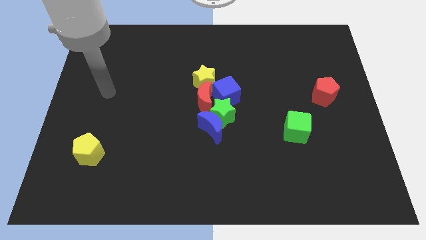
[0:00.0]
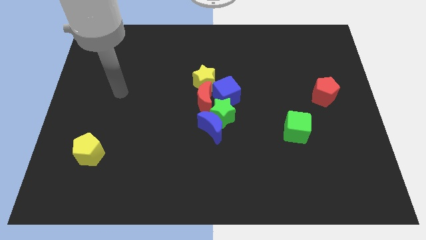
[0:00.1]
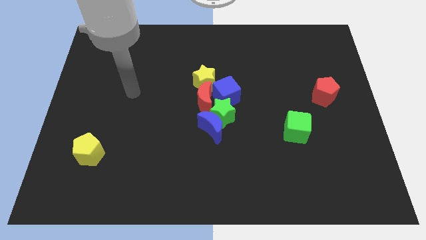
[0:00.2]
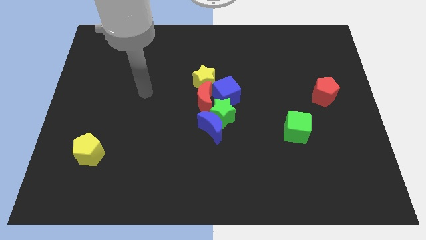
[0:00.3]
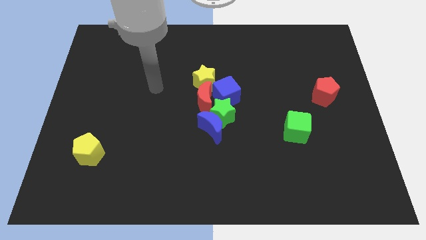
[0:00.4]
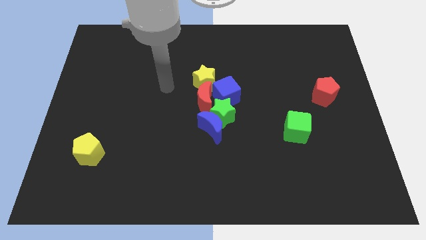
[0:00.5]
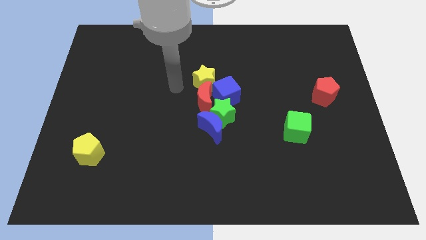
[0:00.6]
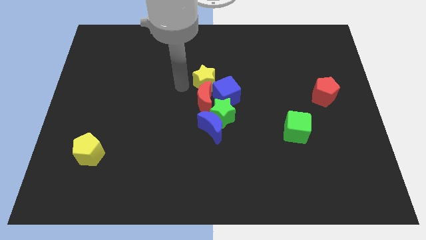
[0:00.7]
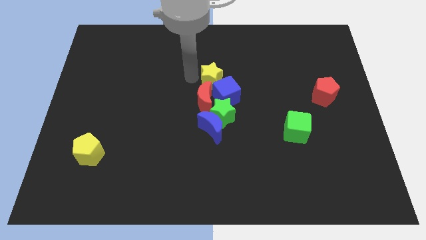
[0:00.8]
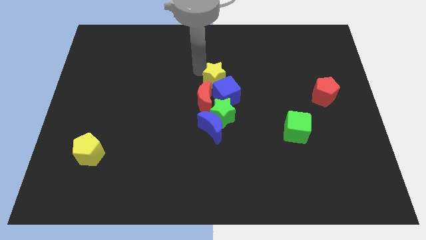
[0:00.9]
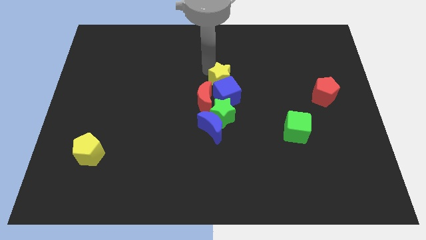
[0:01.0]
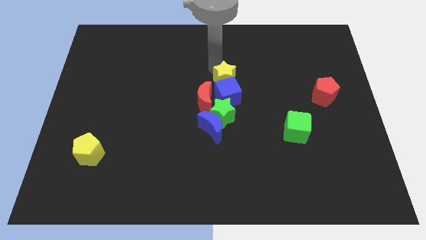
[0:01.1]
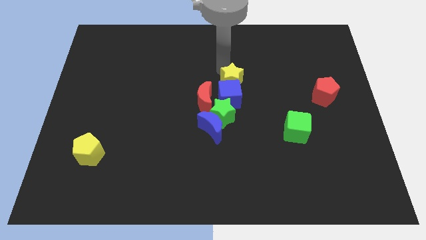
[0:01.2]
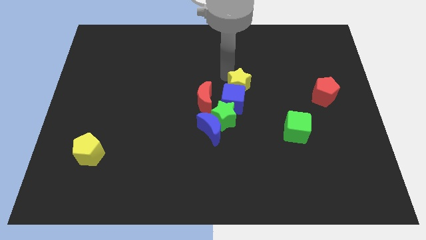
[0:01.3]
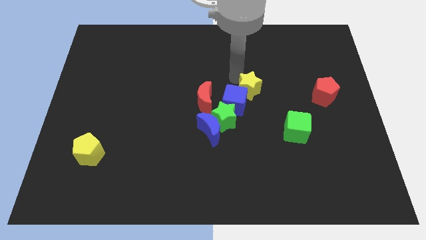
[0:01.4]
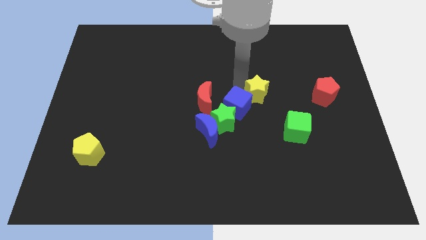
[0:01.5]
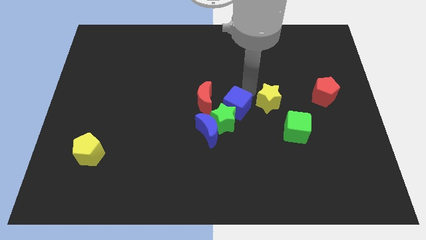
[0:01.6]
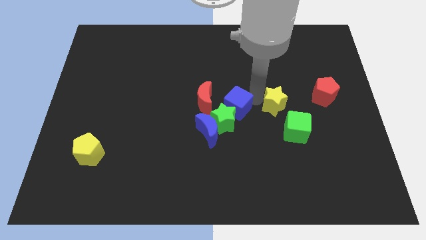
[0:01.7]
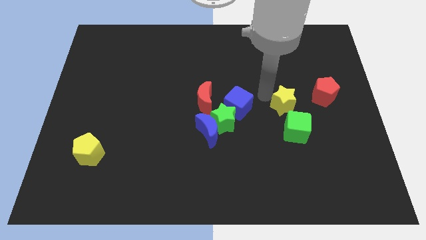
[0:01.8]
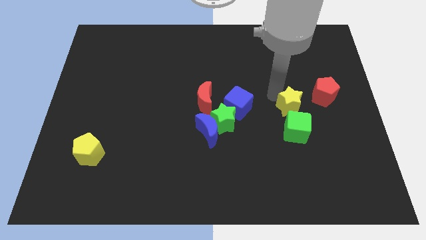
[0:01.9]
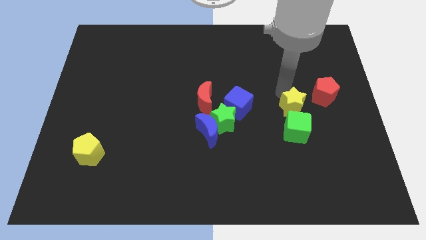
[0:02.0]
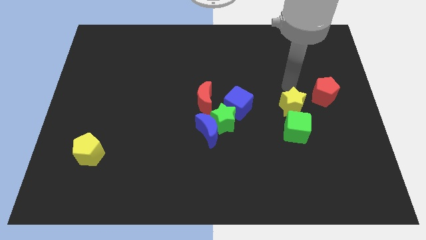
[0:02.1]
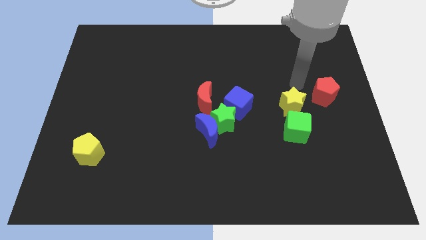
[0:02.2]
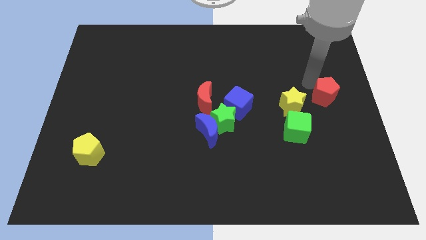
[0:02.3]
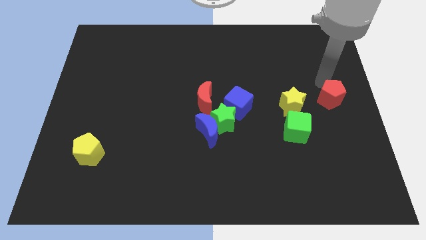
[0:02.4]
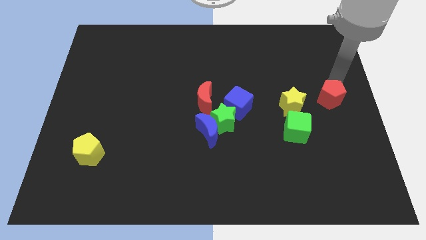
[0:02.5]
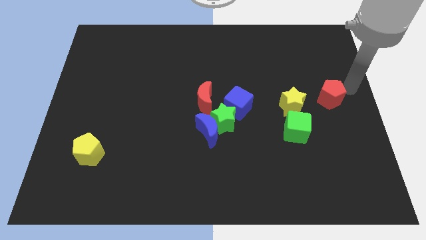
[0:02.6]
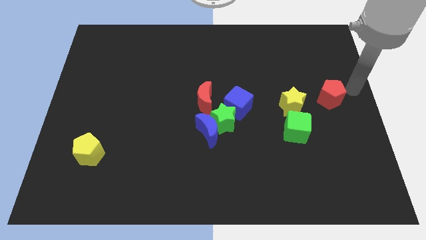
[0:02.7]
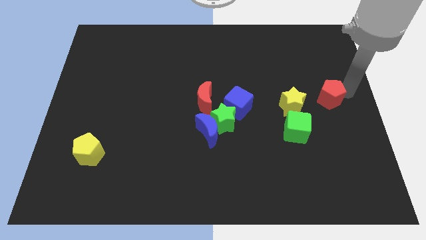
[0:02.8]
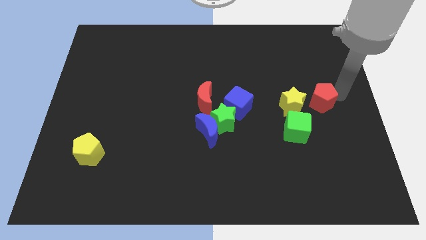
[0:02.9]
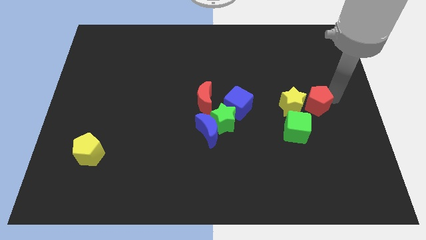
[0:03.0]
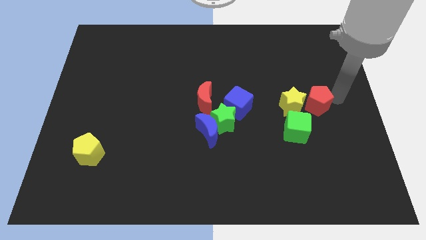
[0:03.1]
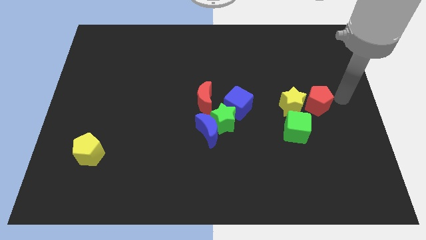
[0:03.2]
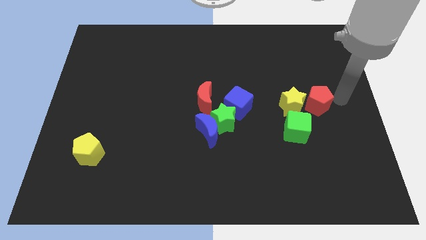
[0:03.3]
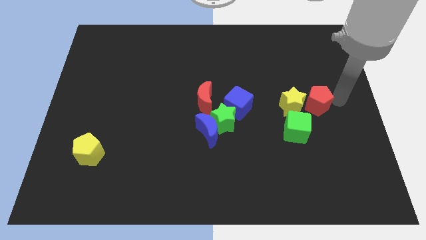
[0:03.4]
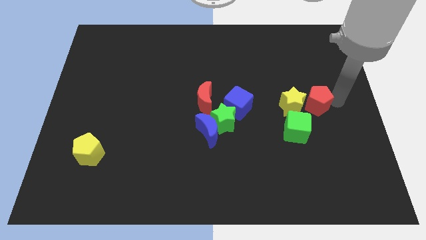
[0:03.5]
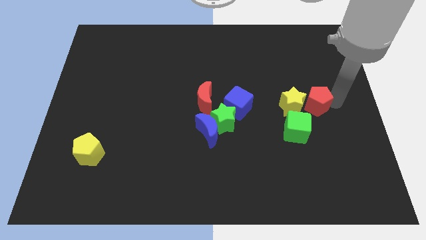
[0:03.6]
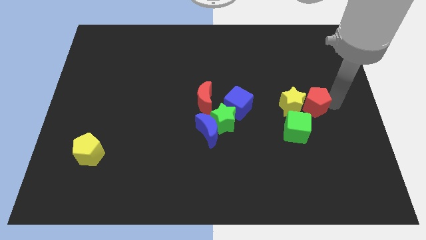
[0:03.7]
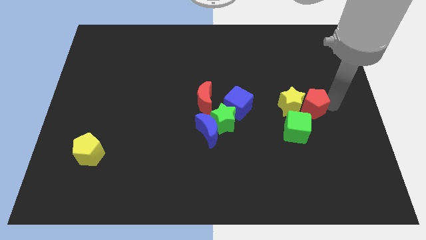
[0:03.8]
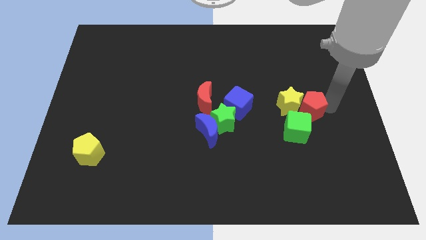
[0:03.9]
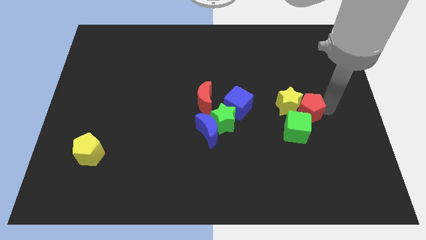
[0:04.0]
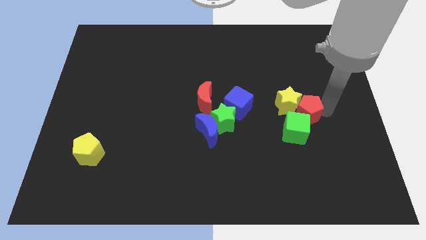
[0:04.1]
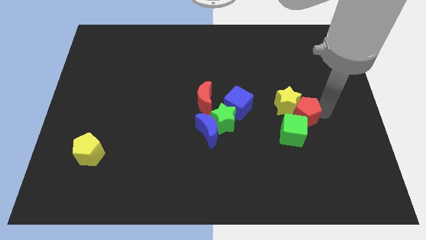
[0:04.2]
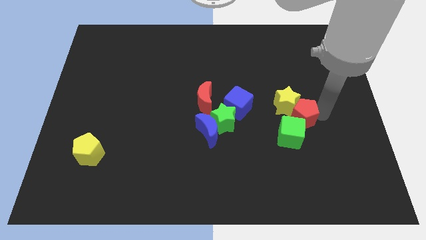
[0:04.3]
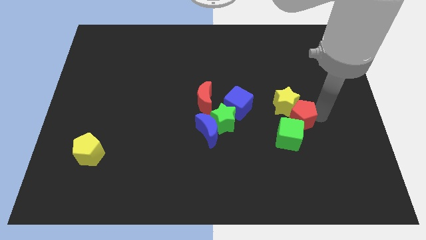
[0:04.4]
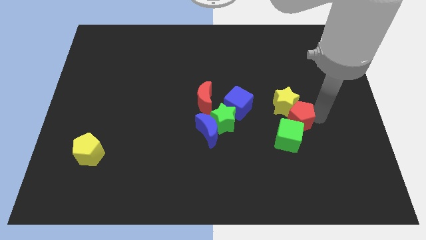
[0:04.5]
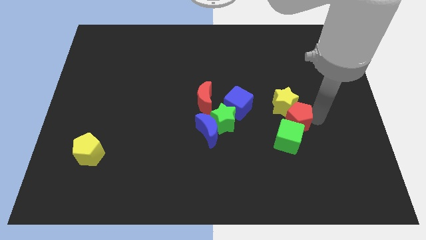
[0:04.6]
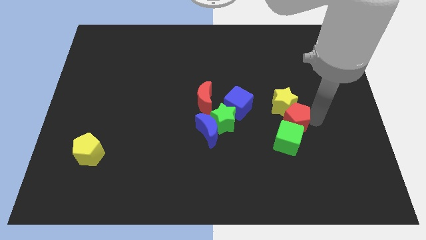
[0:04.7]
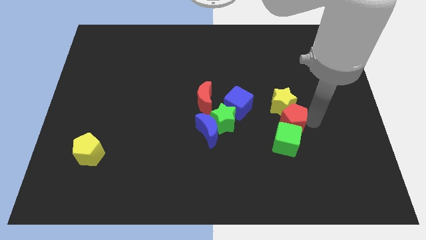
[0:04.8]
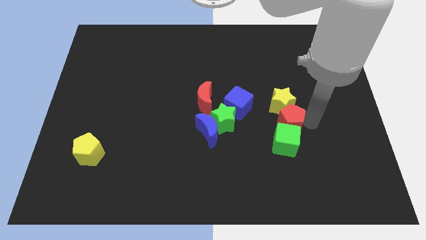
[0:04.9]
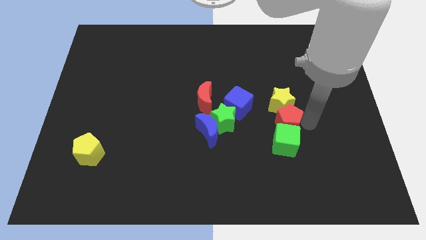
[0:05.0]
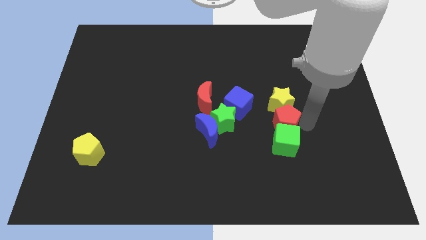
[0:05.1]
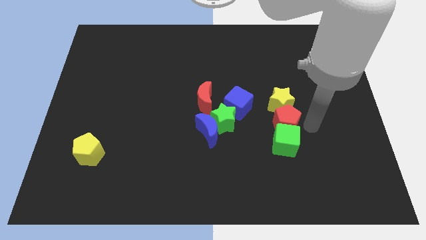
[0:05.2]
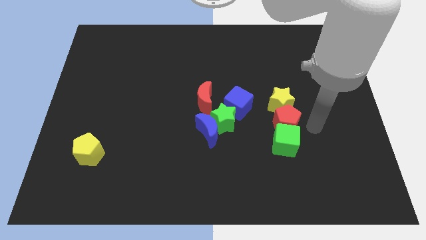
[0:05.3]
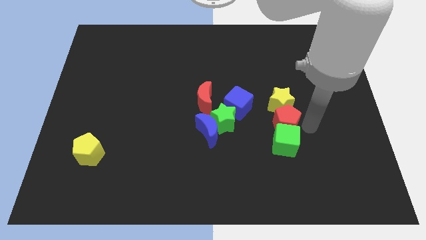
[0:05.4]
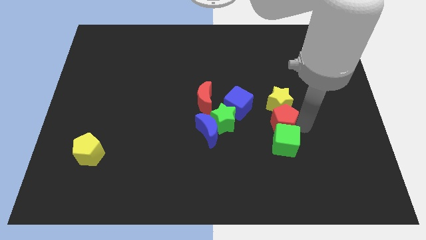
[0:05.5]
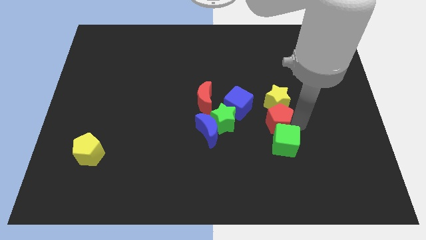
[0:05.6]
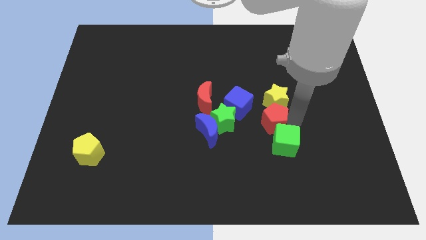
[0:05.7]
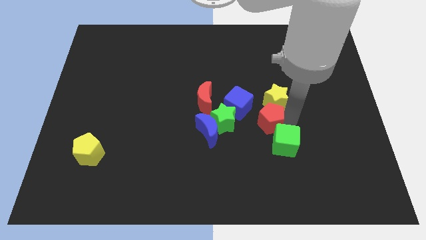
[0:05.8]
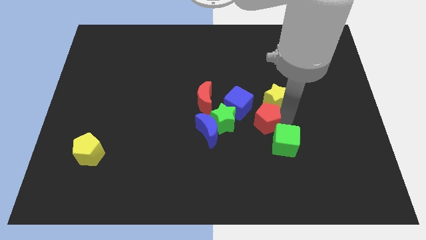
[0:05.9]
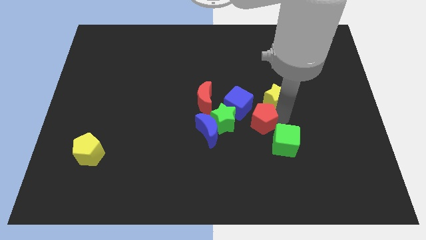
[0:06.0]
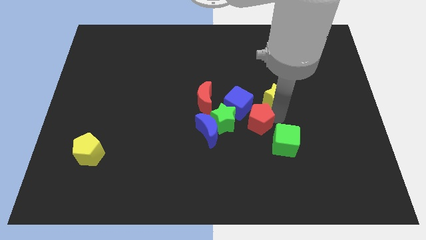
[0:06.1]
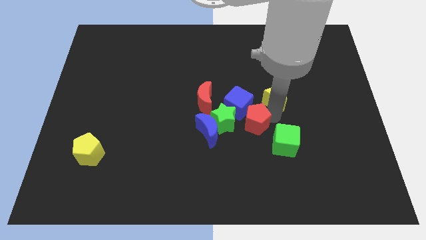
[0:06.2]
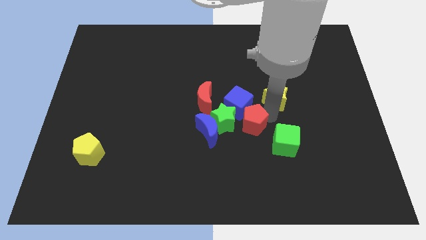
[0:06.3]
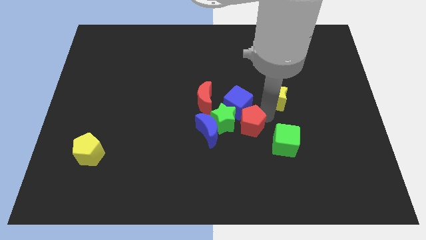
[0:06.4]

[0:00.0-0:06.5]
move the red pentagon left of the green cube
